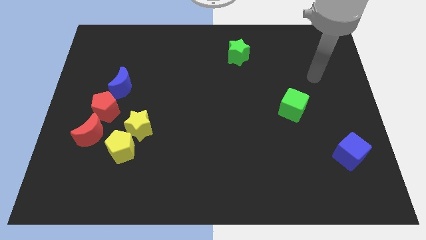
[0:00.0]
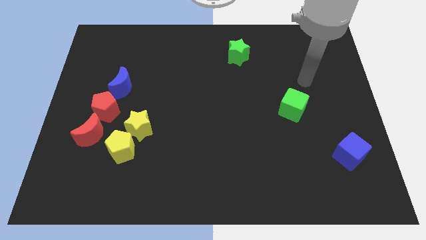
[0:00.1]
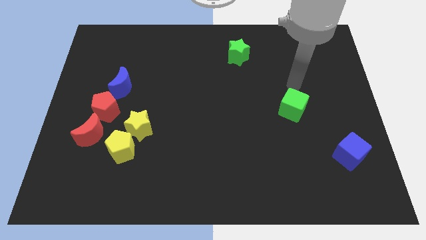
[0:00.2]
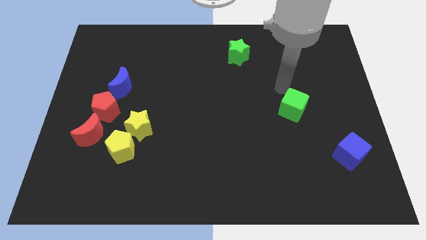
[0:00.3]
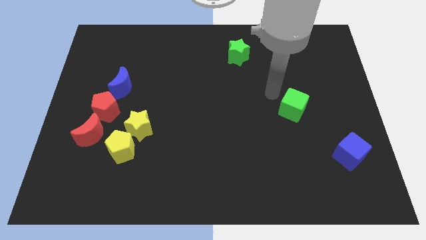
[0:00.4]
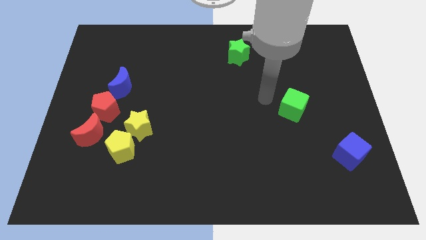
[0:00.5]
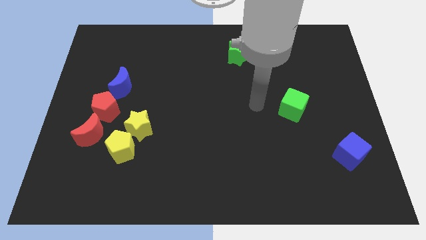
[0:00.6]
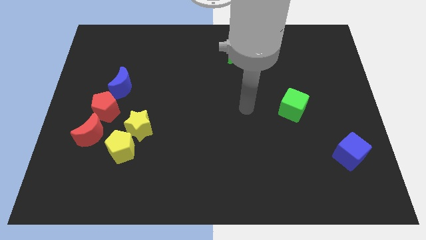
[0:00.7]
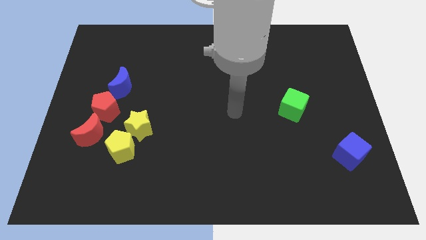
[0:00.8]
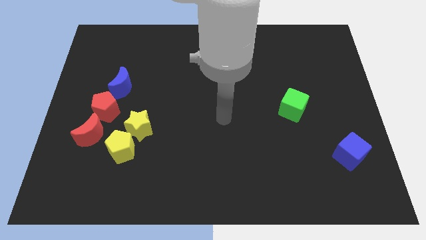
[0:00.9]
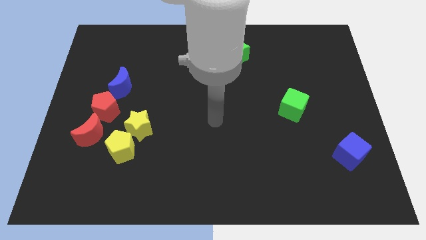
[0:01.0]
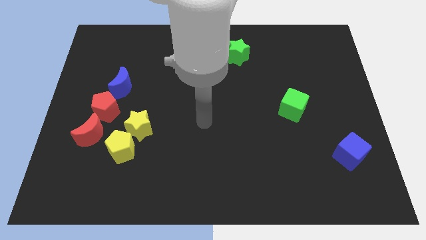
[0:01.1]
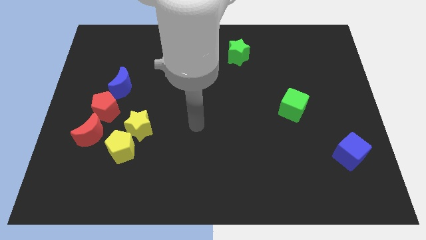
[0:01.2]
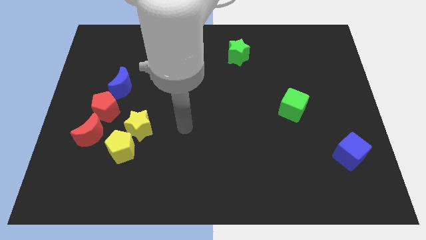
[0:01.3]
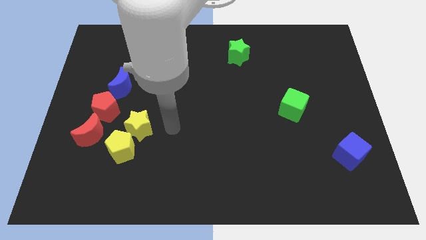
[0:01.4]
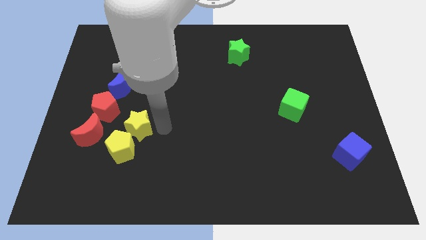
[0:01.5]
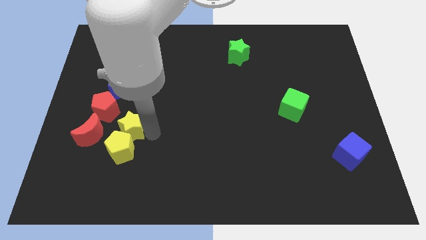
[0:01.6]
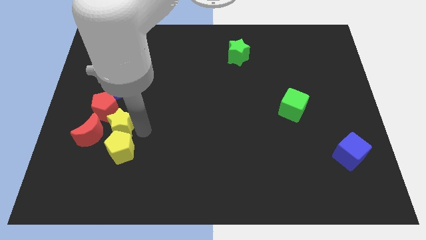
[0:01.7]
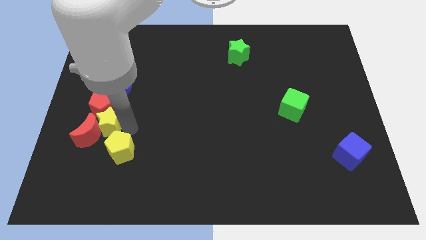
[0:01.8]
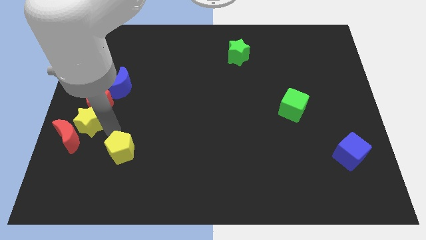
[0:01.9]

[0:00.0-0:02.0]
separate the yellow pentagon from the yellow star and red moon

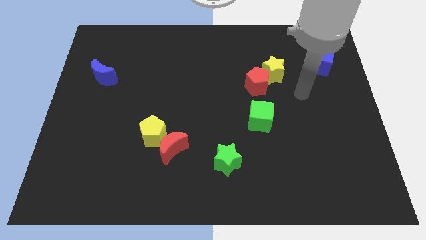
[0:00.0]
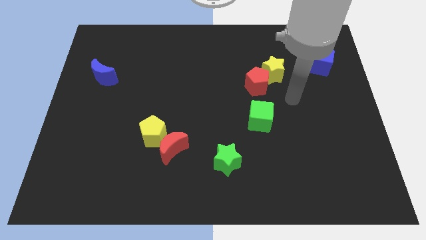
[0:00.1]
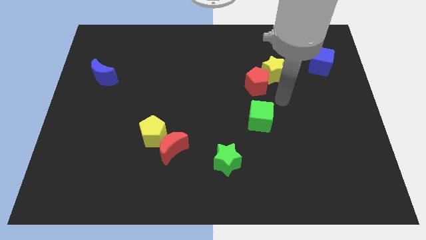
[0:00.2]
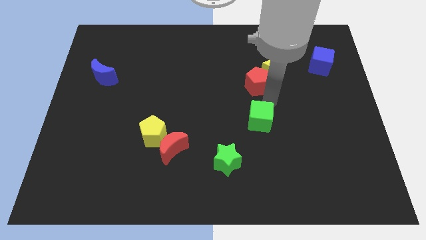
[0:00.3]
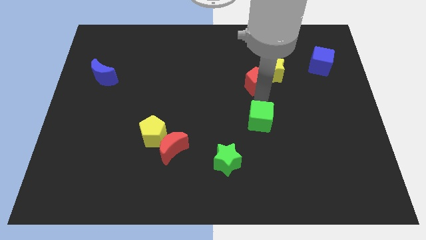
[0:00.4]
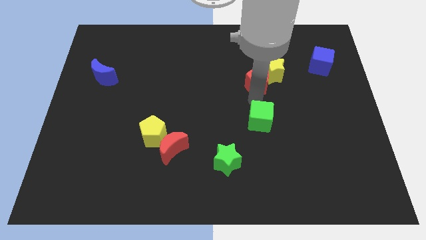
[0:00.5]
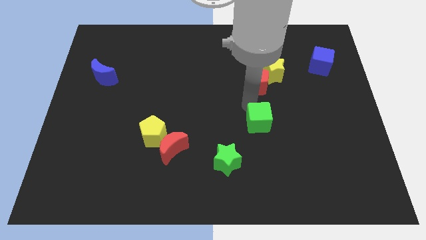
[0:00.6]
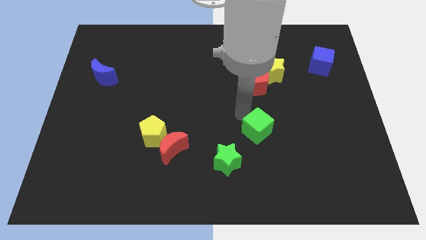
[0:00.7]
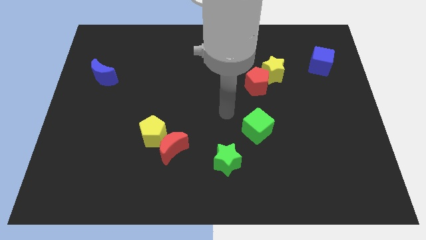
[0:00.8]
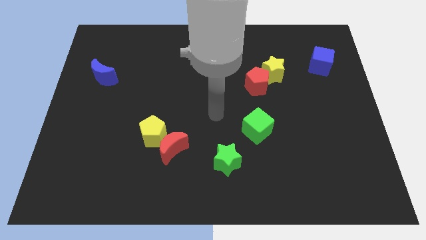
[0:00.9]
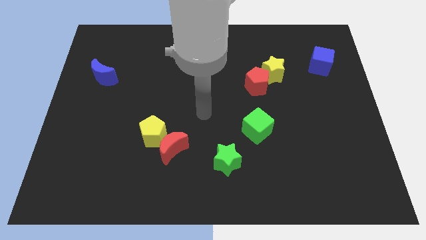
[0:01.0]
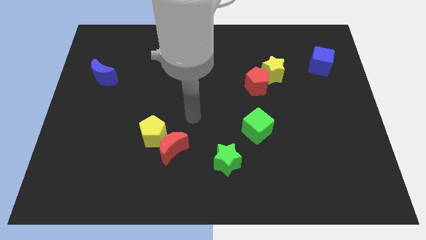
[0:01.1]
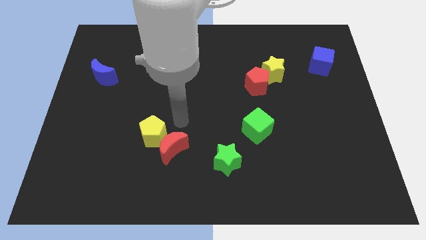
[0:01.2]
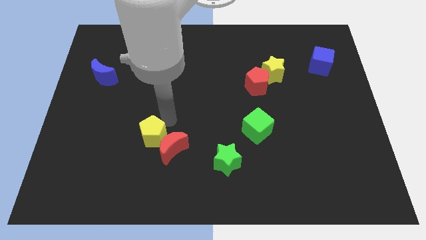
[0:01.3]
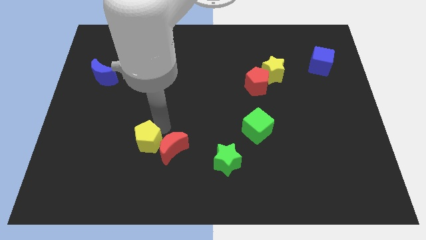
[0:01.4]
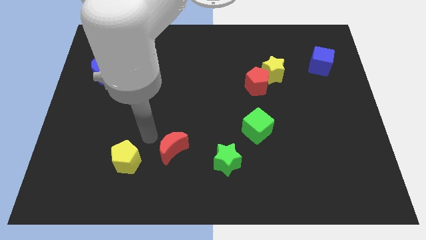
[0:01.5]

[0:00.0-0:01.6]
move the red moon away from the yellow pentagon

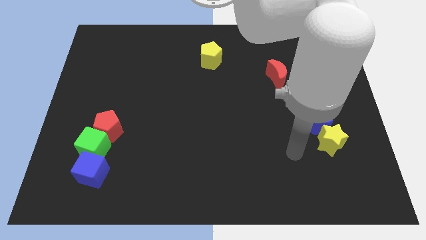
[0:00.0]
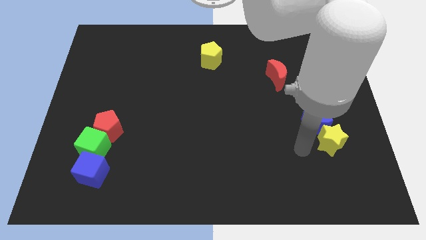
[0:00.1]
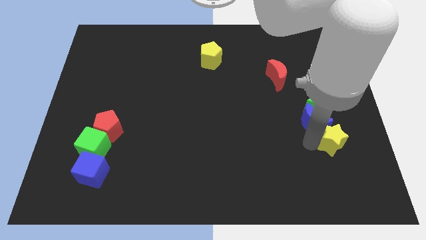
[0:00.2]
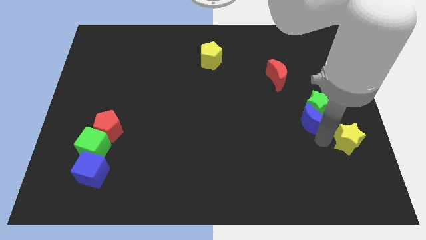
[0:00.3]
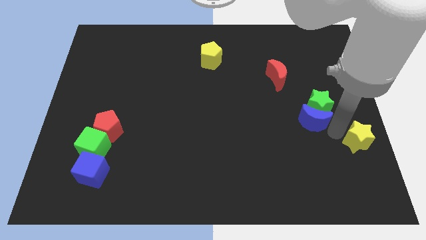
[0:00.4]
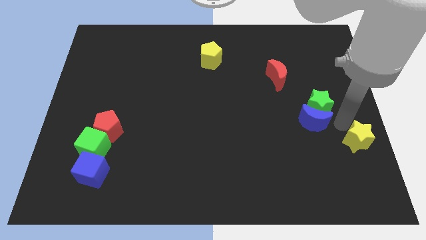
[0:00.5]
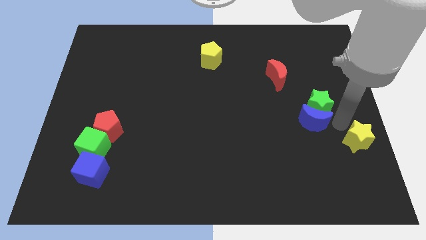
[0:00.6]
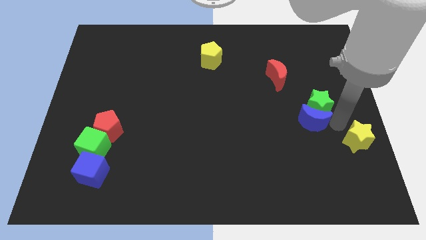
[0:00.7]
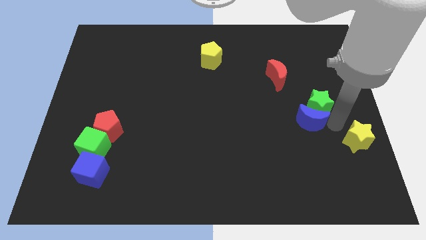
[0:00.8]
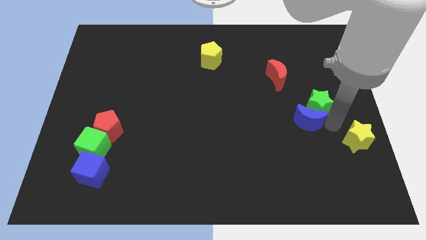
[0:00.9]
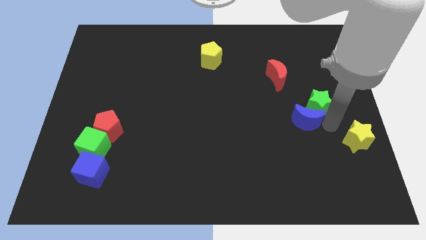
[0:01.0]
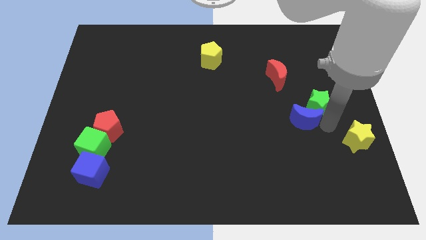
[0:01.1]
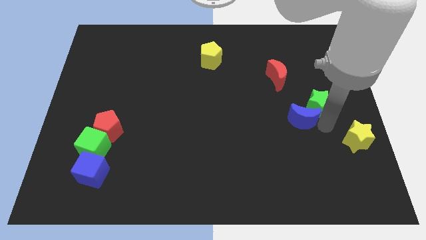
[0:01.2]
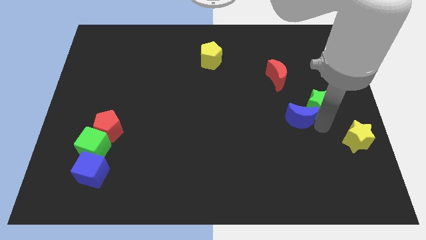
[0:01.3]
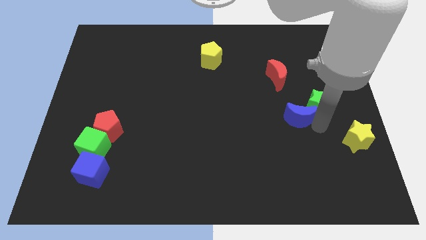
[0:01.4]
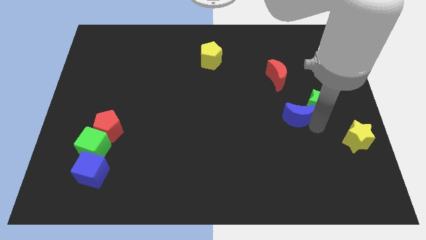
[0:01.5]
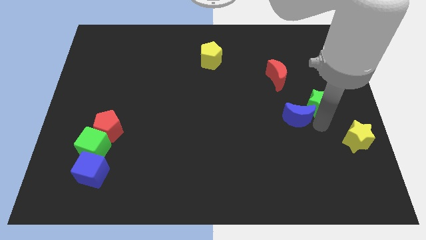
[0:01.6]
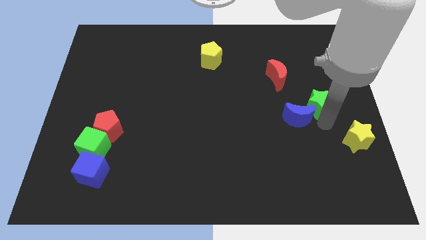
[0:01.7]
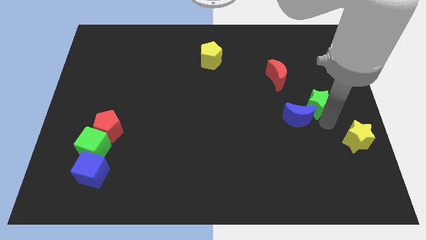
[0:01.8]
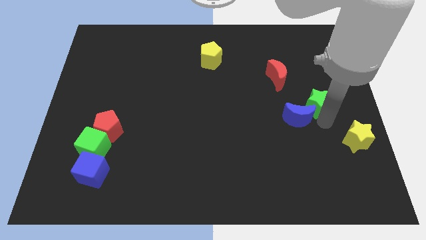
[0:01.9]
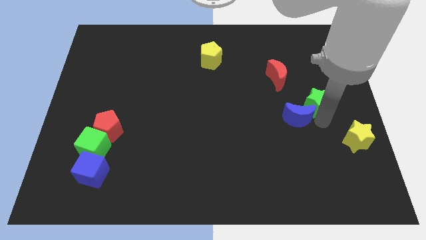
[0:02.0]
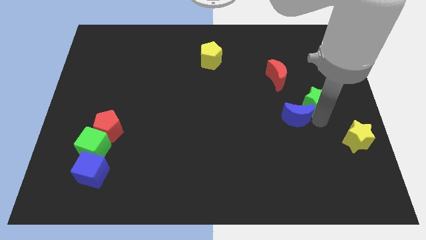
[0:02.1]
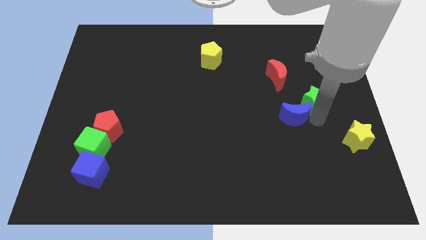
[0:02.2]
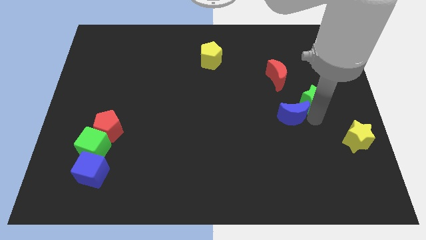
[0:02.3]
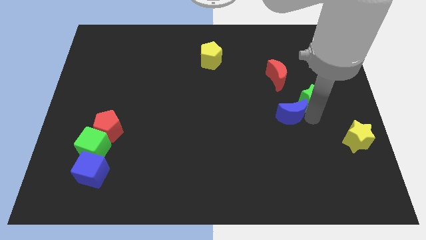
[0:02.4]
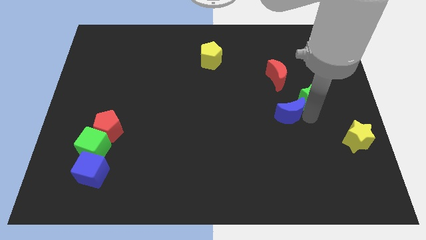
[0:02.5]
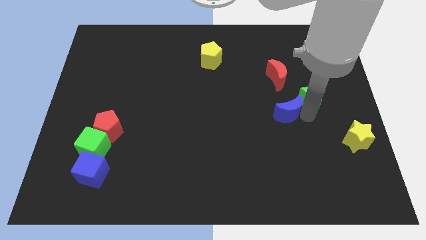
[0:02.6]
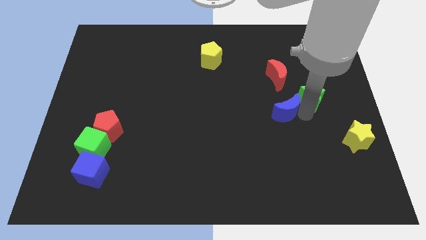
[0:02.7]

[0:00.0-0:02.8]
move the blue moon away from the green star and yellow star

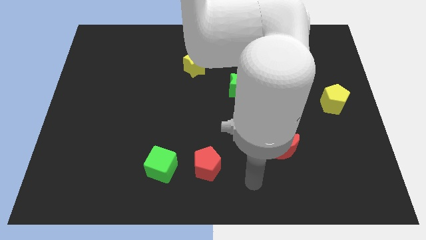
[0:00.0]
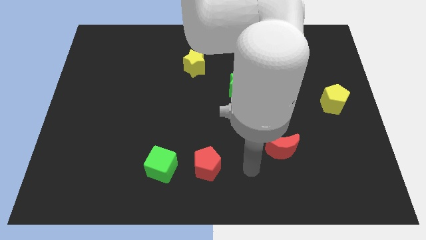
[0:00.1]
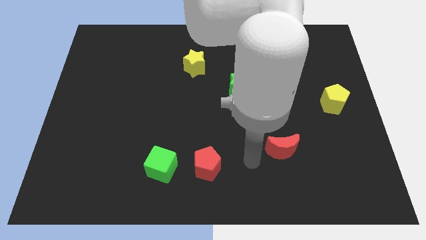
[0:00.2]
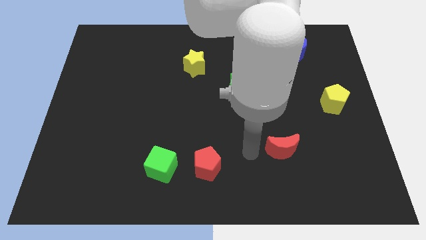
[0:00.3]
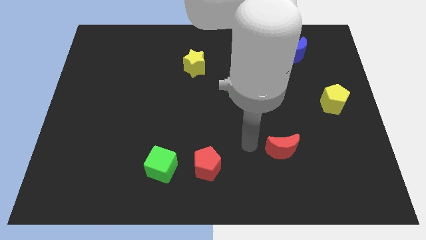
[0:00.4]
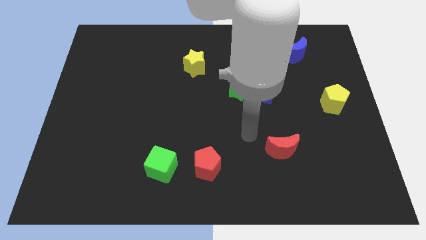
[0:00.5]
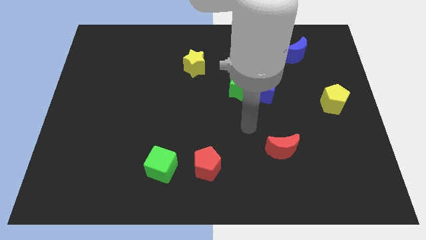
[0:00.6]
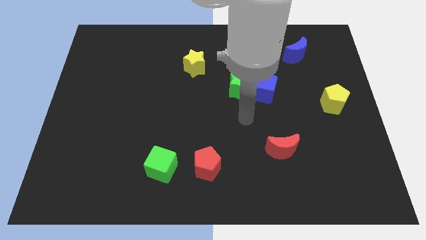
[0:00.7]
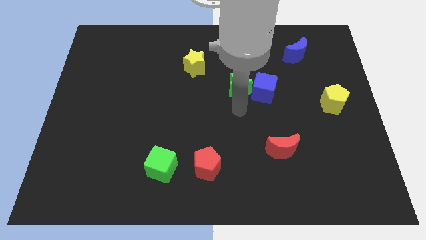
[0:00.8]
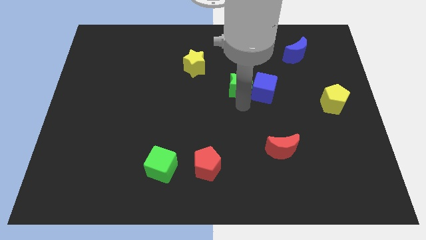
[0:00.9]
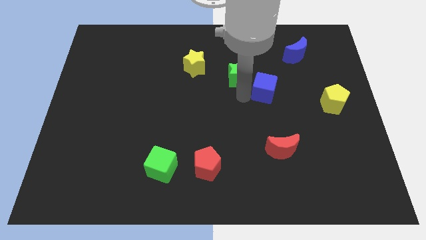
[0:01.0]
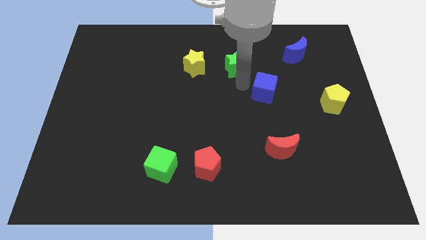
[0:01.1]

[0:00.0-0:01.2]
pull the blue cube apart from the green star

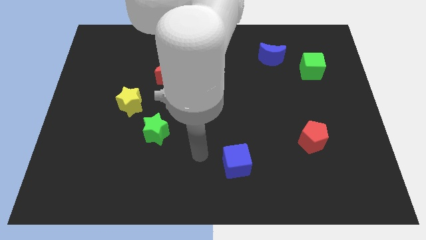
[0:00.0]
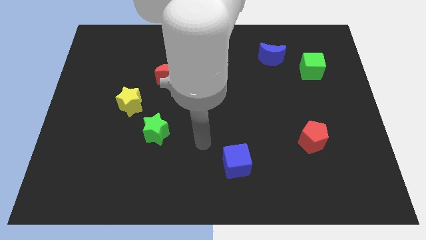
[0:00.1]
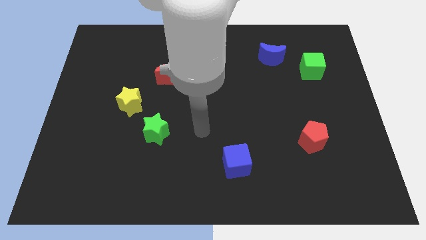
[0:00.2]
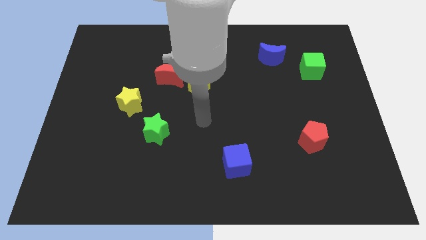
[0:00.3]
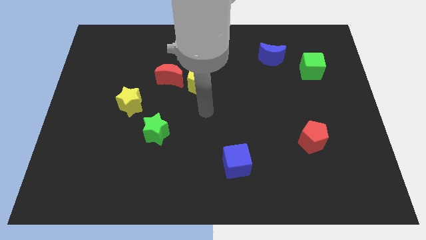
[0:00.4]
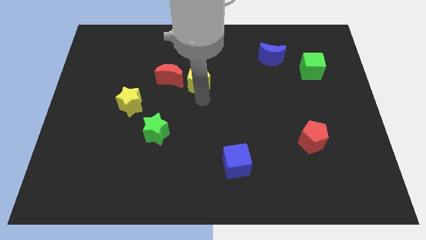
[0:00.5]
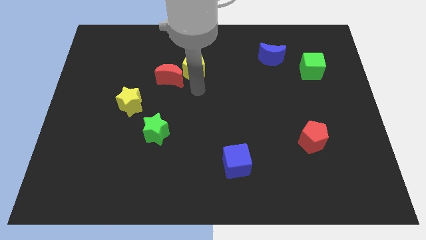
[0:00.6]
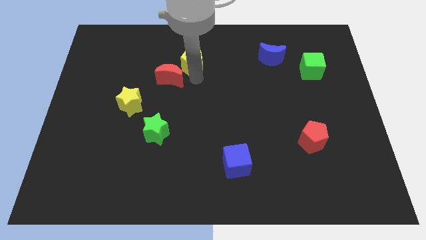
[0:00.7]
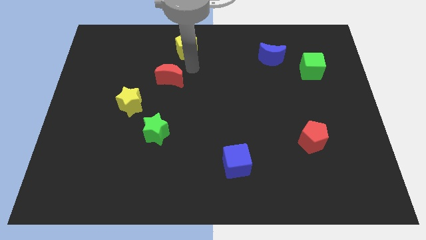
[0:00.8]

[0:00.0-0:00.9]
pull the red moon apart from the yellow pentagon

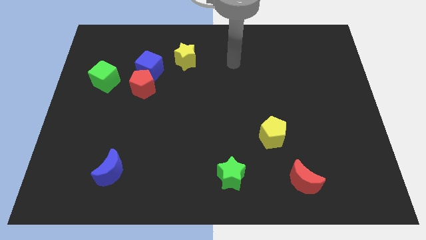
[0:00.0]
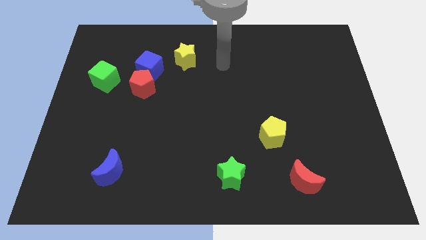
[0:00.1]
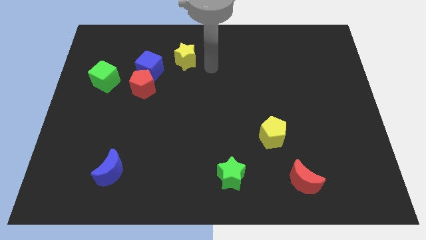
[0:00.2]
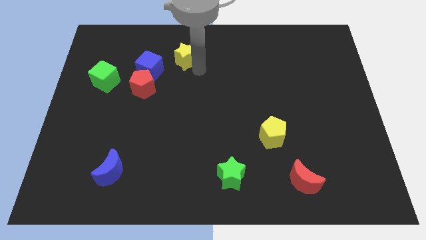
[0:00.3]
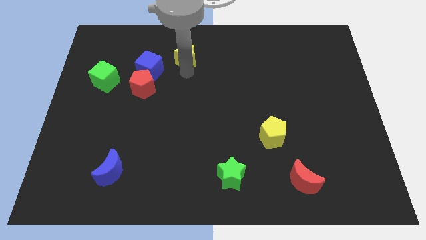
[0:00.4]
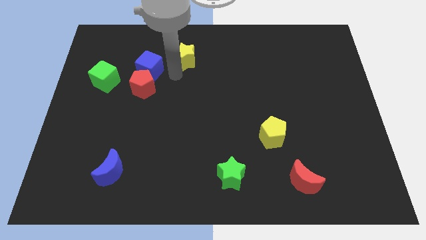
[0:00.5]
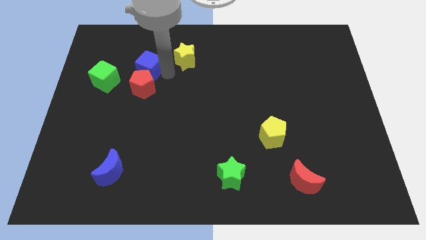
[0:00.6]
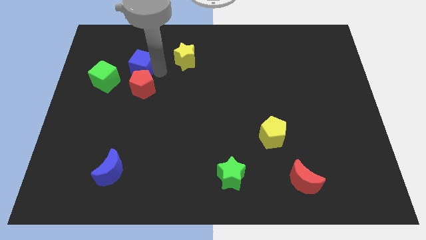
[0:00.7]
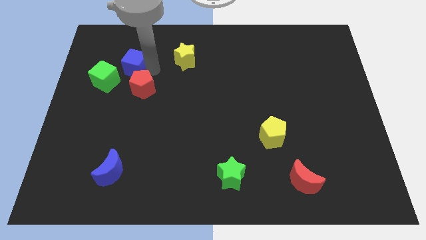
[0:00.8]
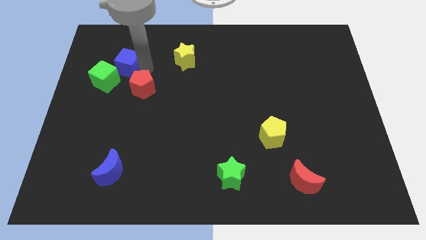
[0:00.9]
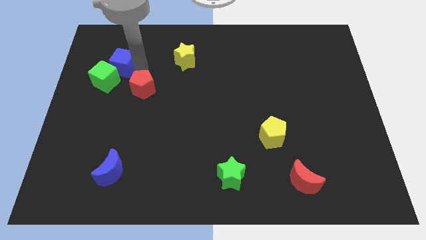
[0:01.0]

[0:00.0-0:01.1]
separate the blue cube from the red pentagon and yellow star
